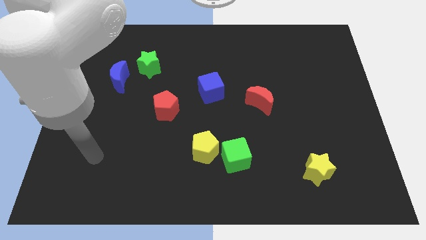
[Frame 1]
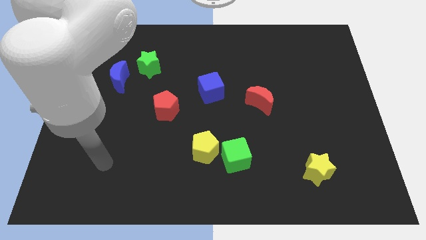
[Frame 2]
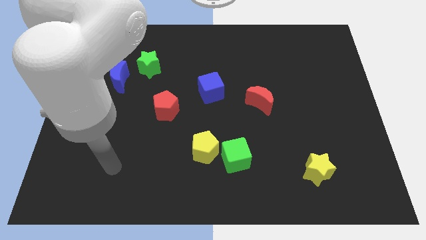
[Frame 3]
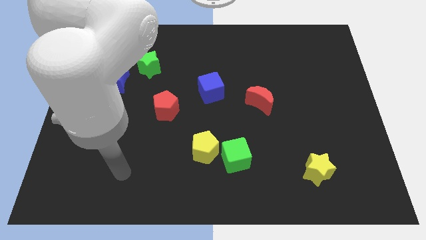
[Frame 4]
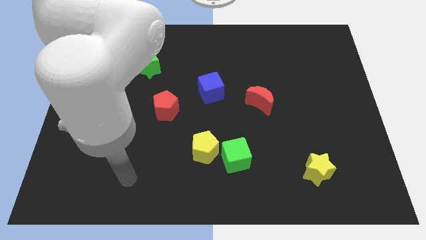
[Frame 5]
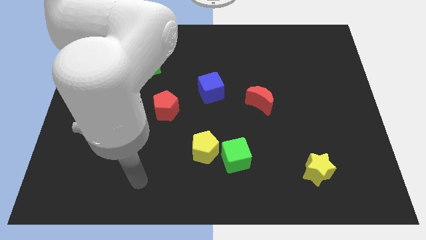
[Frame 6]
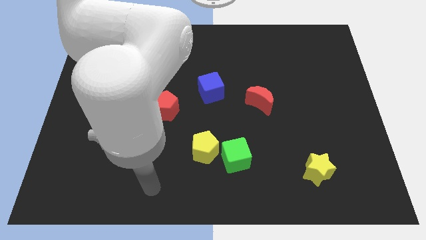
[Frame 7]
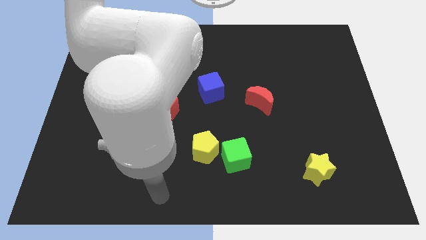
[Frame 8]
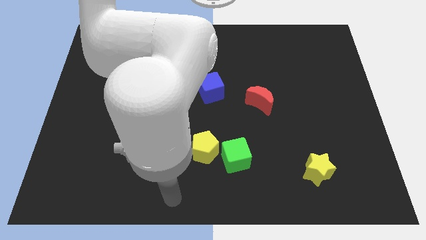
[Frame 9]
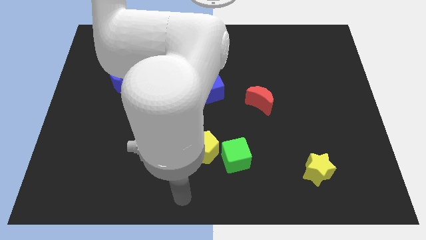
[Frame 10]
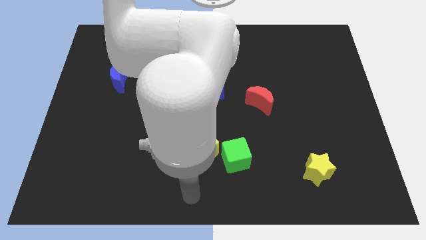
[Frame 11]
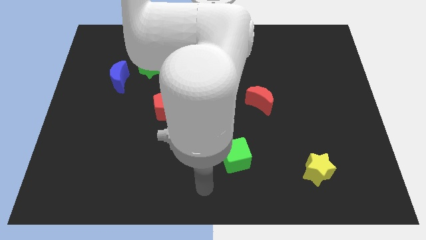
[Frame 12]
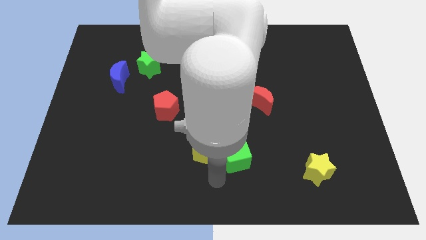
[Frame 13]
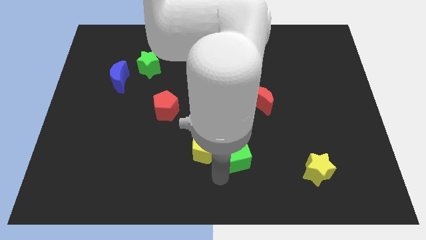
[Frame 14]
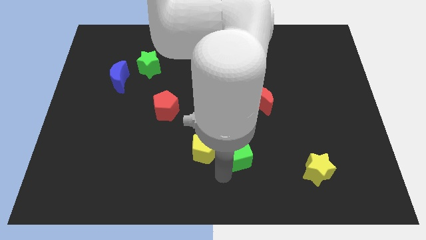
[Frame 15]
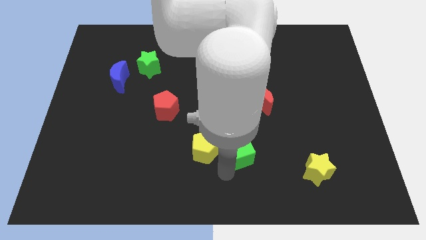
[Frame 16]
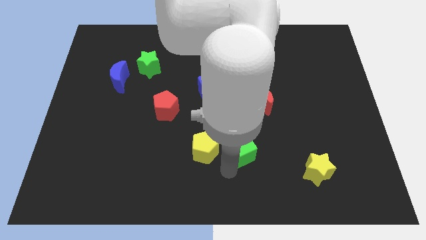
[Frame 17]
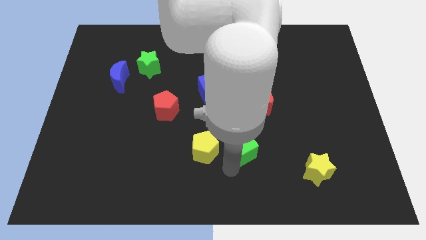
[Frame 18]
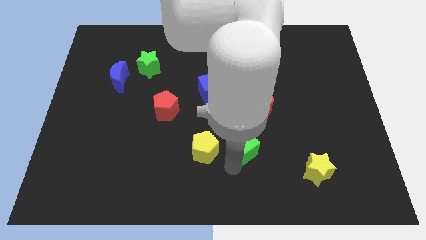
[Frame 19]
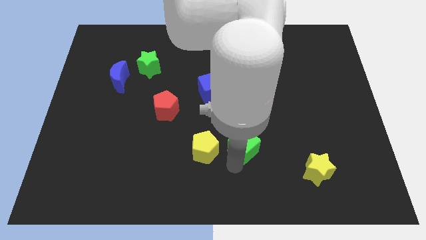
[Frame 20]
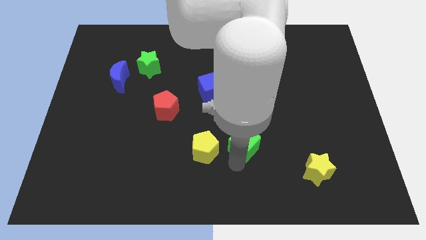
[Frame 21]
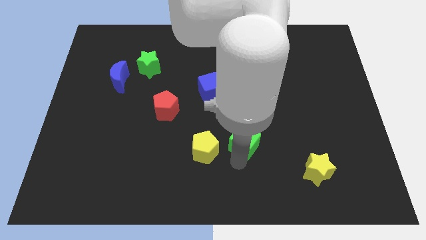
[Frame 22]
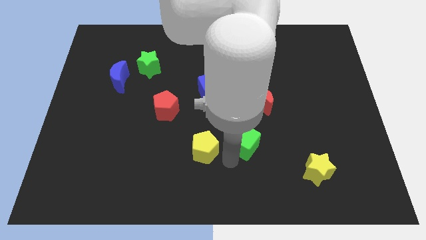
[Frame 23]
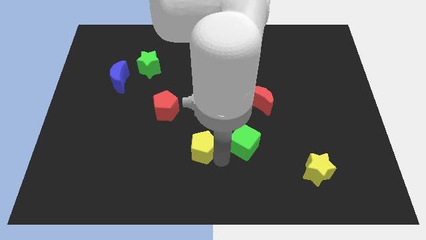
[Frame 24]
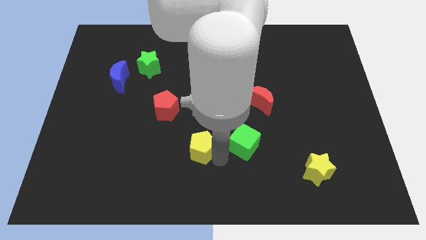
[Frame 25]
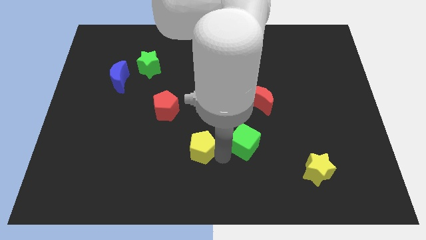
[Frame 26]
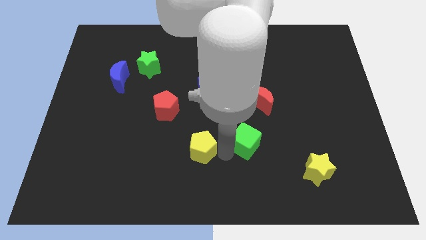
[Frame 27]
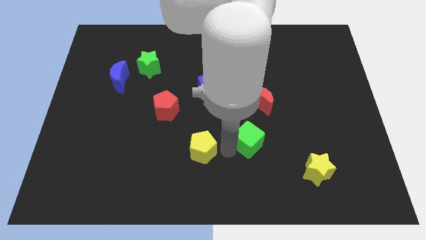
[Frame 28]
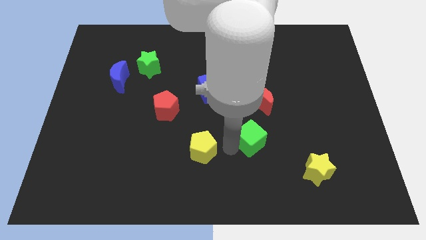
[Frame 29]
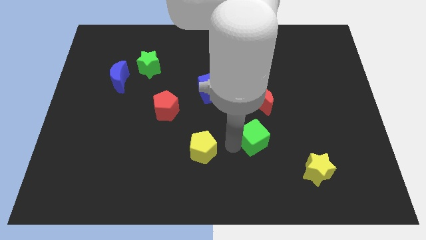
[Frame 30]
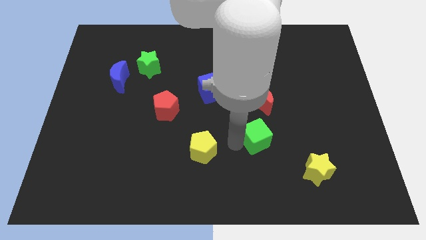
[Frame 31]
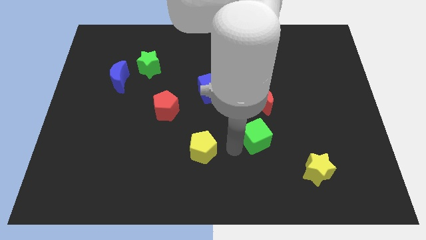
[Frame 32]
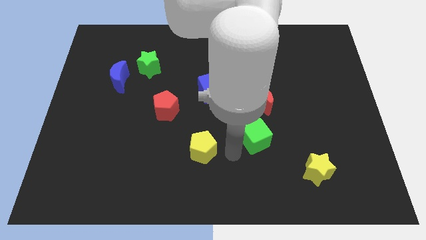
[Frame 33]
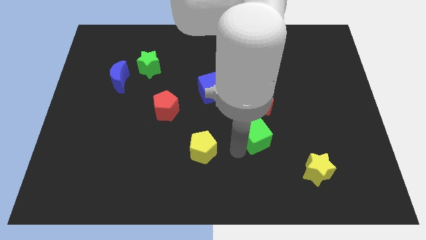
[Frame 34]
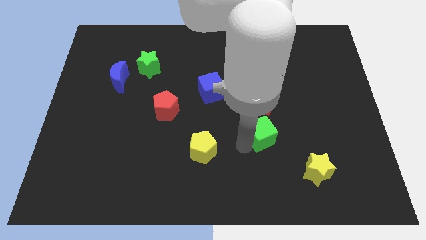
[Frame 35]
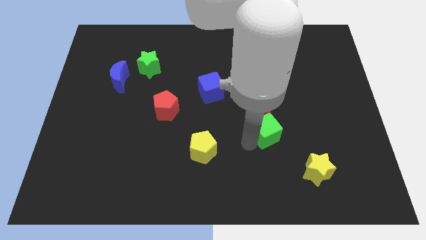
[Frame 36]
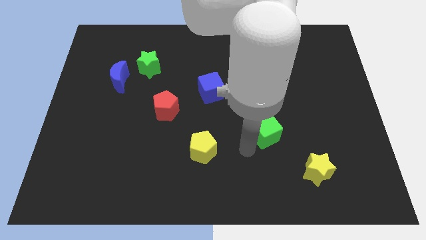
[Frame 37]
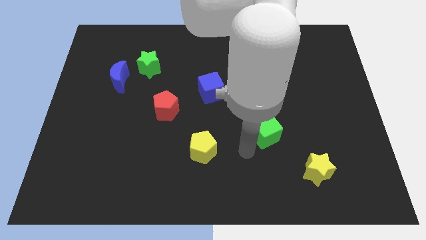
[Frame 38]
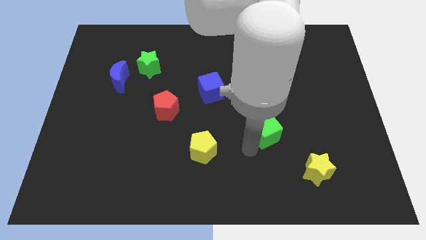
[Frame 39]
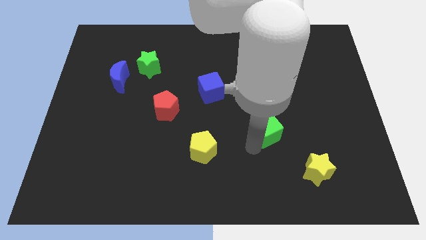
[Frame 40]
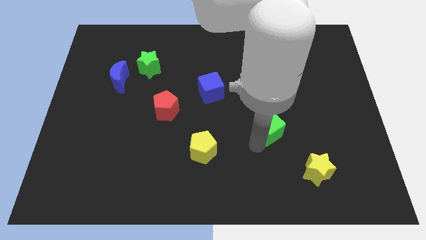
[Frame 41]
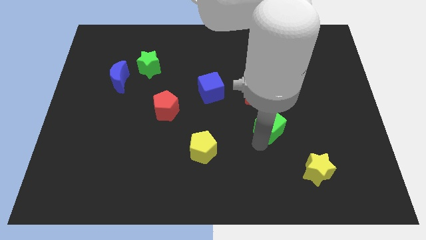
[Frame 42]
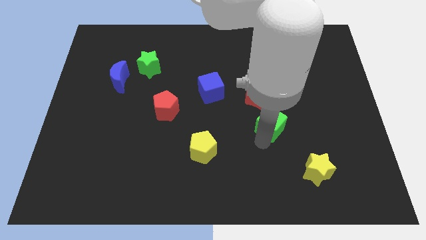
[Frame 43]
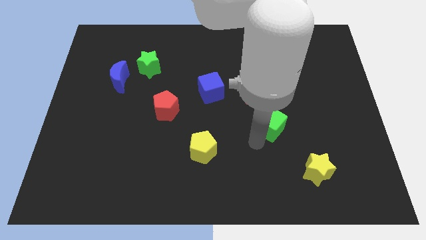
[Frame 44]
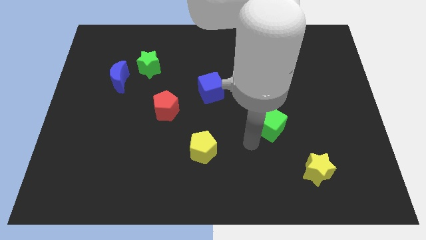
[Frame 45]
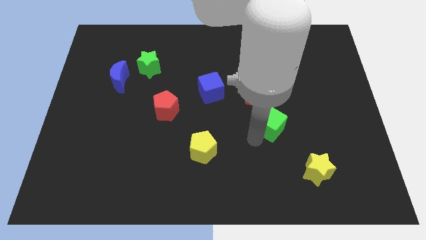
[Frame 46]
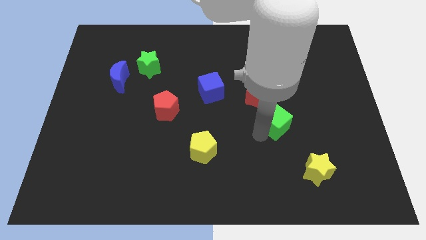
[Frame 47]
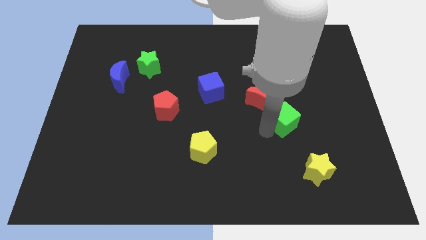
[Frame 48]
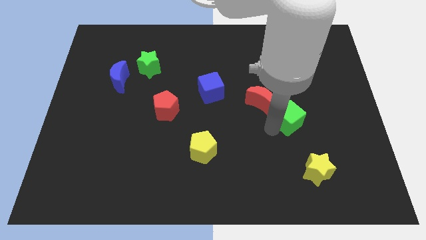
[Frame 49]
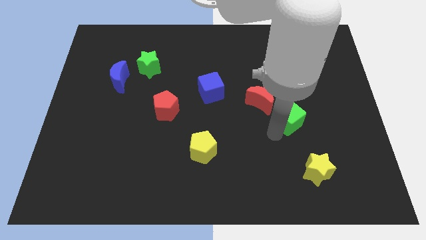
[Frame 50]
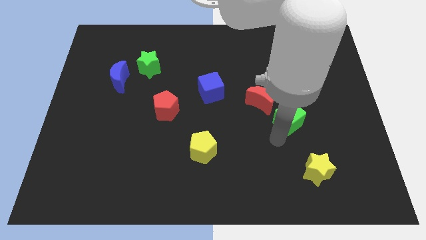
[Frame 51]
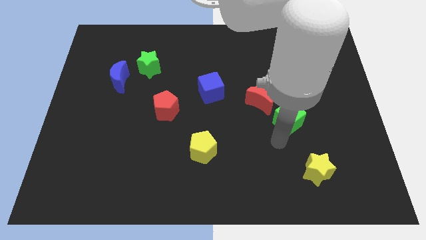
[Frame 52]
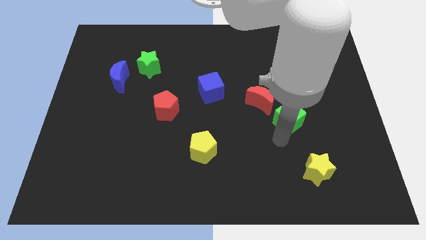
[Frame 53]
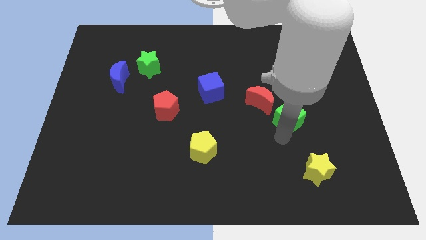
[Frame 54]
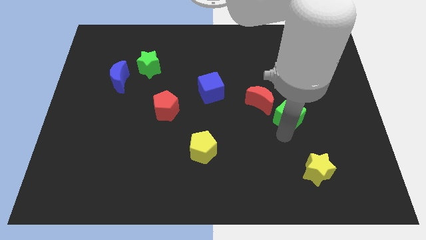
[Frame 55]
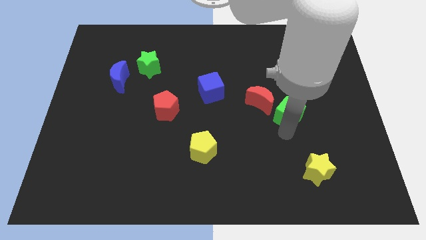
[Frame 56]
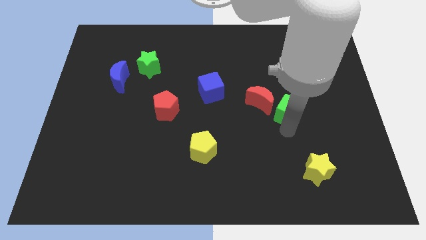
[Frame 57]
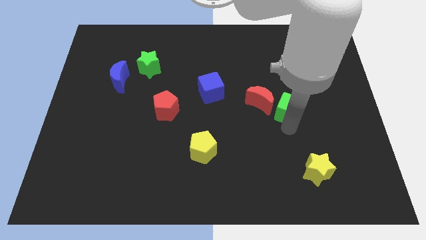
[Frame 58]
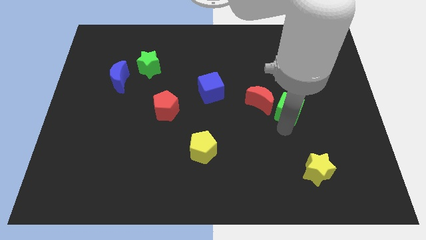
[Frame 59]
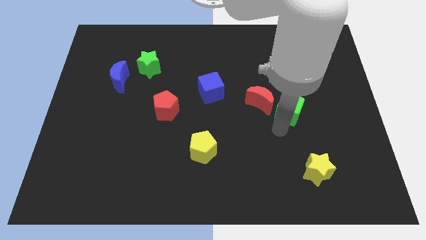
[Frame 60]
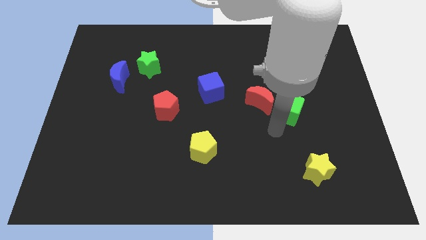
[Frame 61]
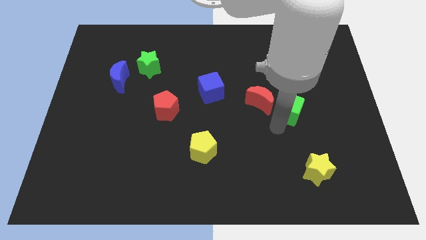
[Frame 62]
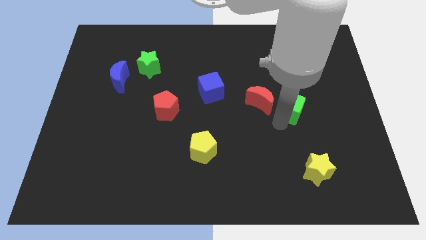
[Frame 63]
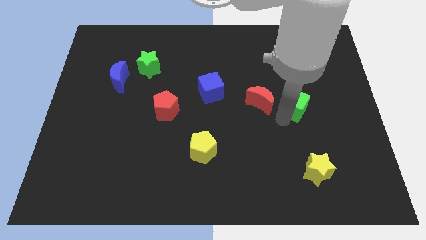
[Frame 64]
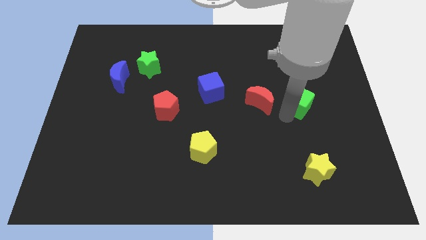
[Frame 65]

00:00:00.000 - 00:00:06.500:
move the green cube upwards and to the right diagonally

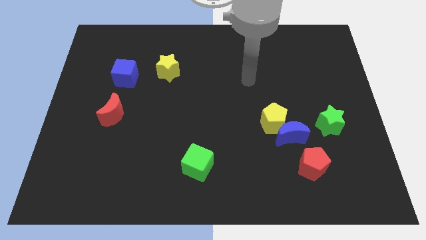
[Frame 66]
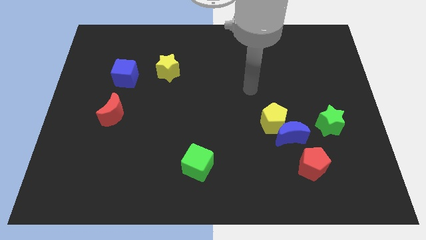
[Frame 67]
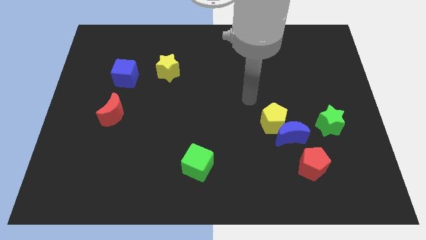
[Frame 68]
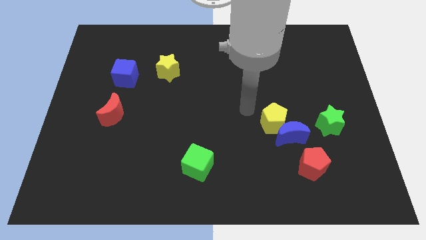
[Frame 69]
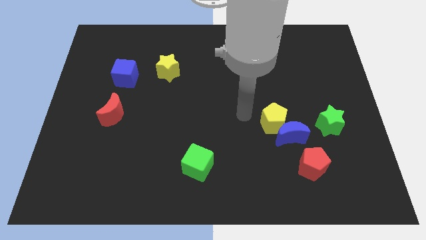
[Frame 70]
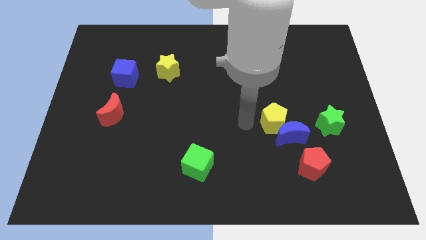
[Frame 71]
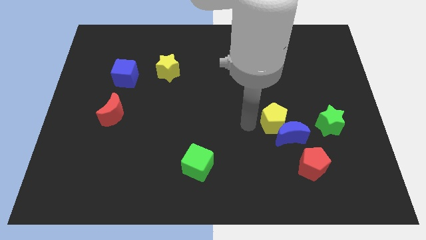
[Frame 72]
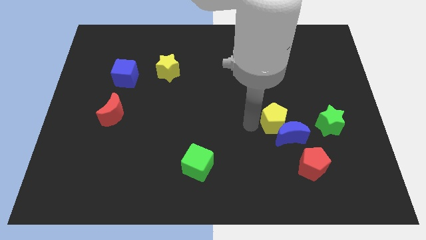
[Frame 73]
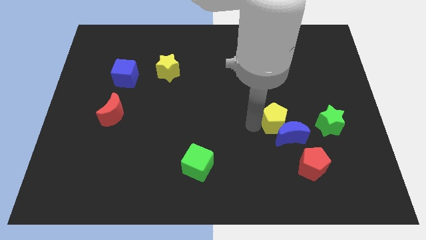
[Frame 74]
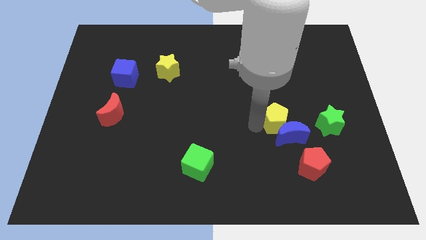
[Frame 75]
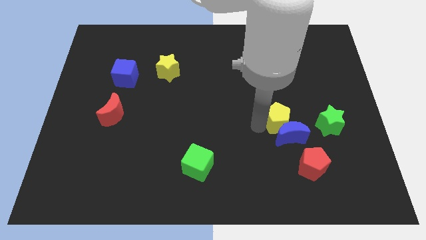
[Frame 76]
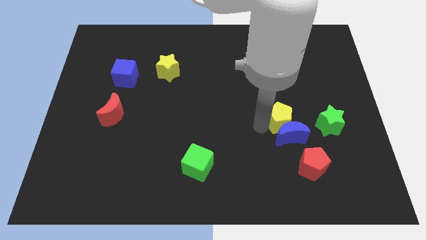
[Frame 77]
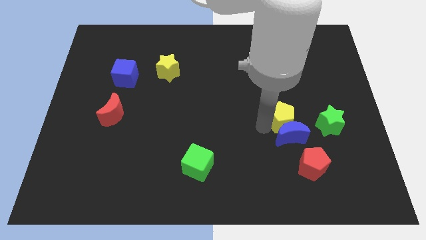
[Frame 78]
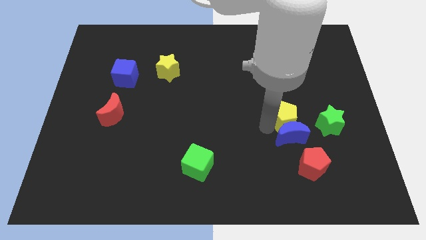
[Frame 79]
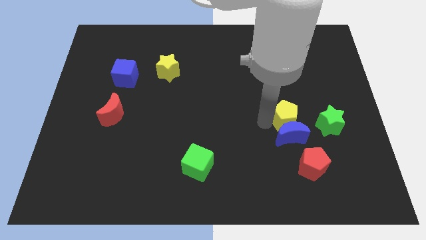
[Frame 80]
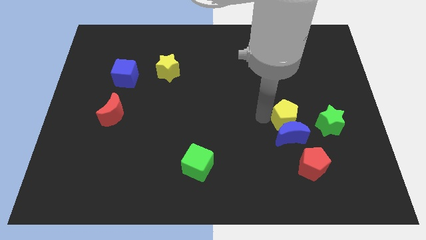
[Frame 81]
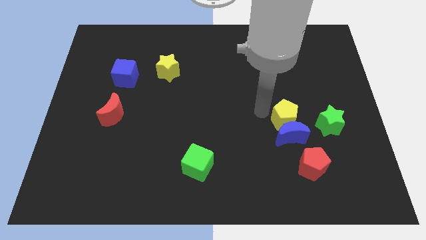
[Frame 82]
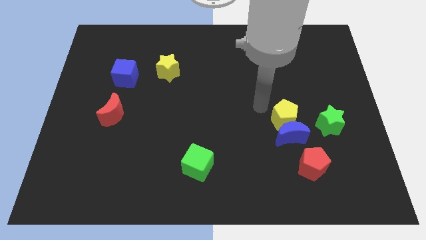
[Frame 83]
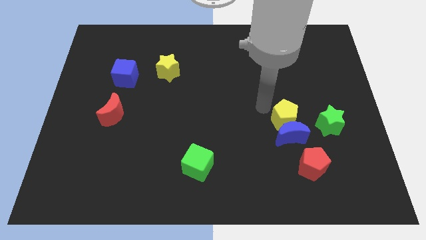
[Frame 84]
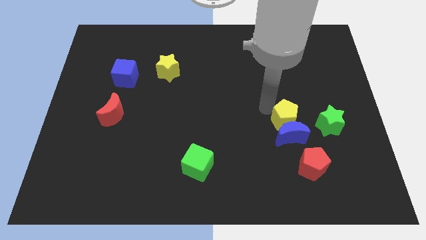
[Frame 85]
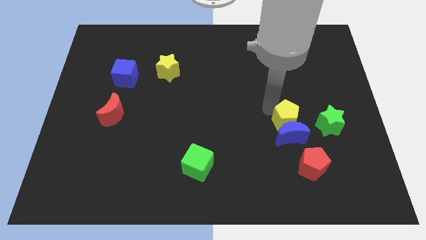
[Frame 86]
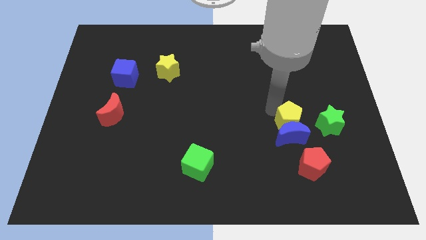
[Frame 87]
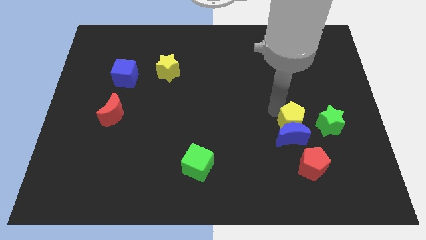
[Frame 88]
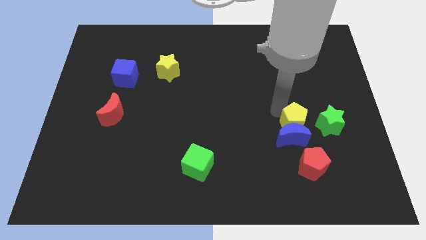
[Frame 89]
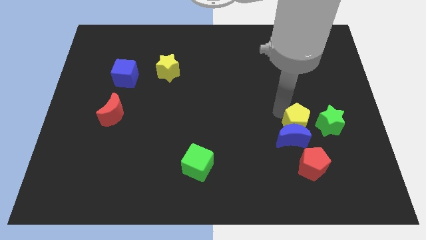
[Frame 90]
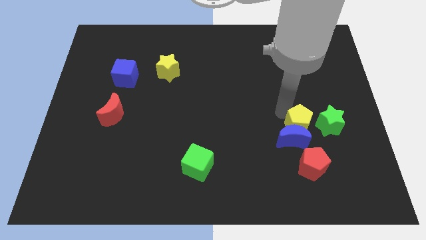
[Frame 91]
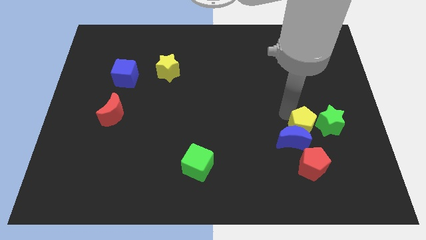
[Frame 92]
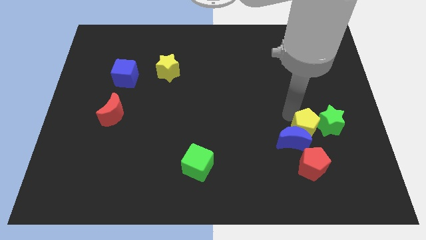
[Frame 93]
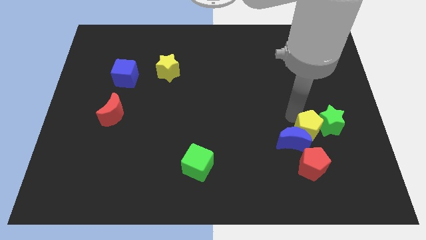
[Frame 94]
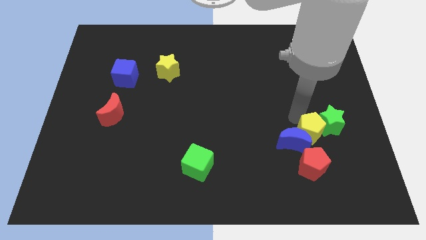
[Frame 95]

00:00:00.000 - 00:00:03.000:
slightly slide the yellow pentagon downwards and then to the right
